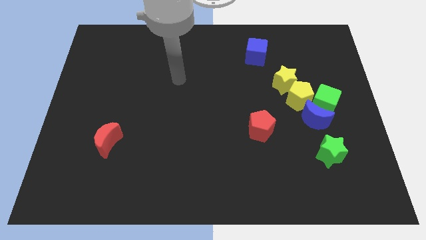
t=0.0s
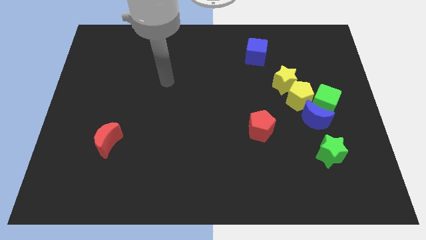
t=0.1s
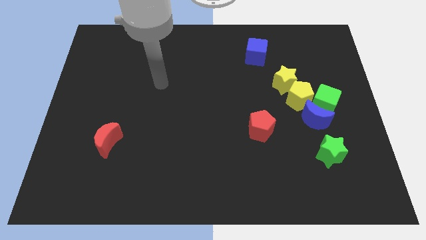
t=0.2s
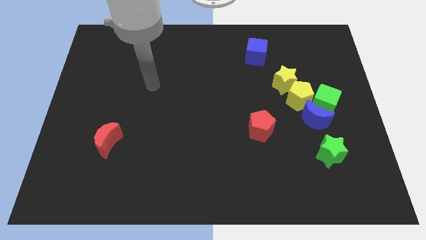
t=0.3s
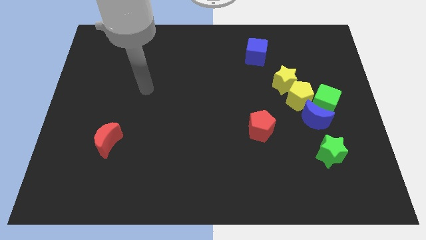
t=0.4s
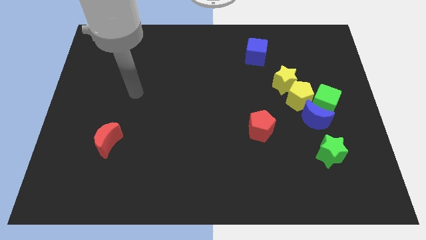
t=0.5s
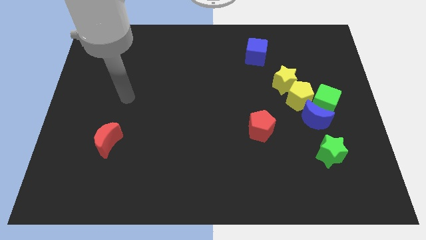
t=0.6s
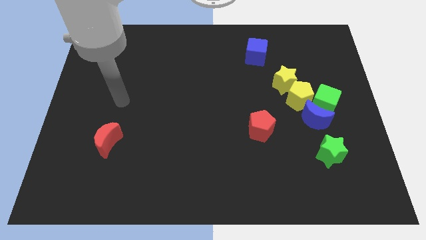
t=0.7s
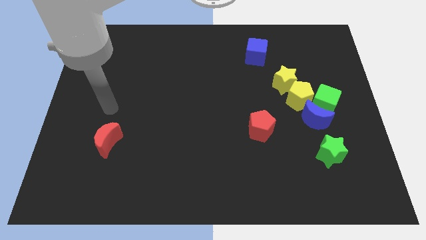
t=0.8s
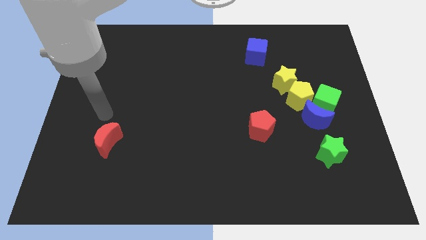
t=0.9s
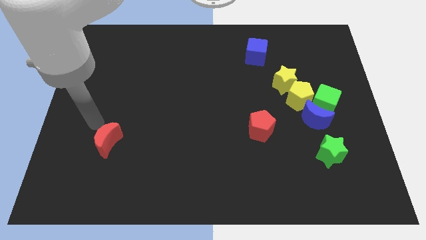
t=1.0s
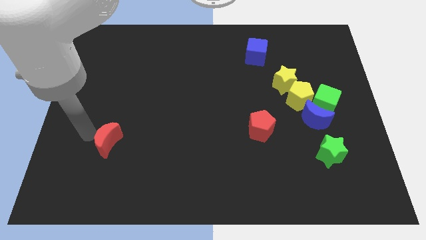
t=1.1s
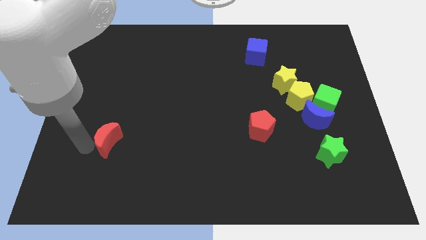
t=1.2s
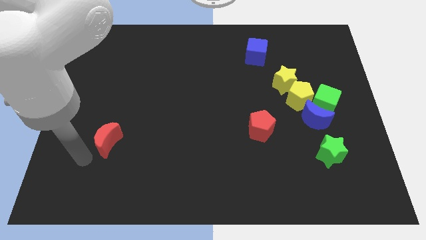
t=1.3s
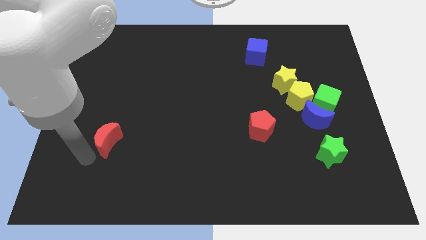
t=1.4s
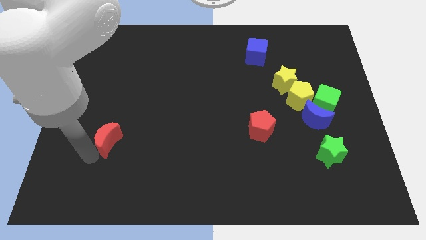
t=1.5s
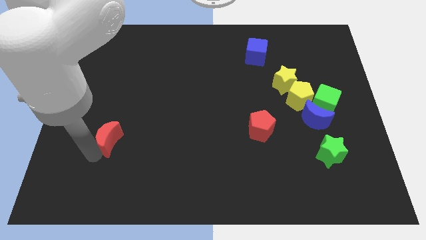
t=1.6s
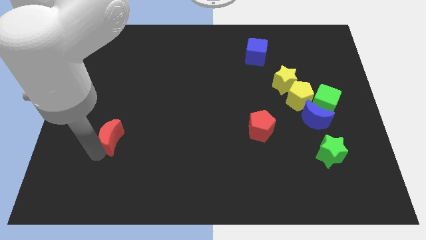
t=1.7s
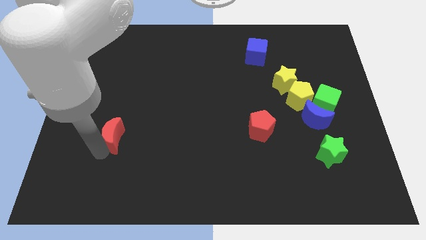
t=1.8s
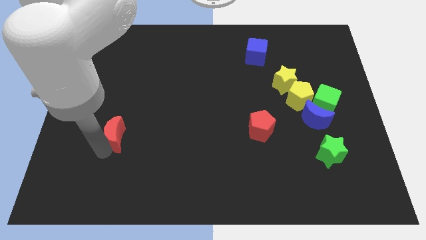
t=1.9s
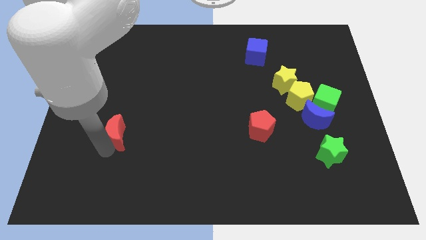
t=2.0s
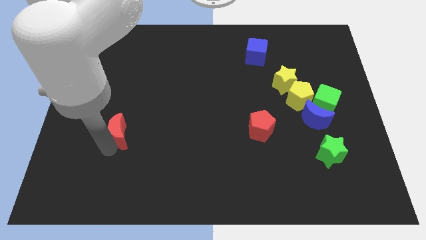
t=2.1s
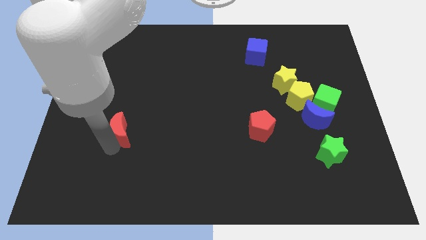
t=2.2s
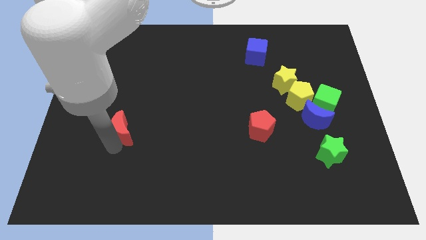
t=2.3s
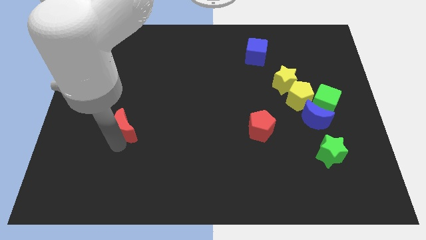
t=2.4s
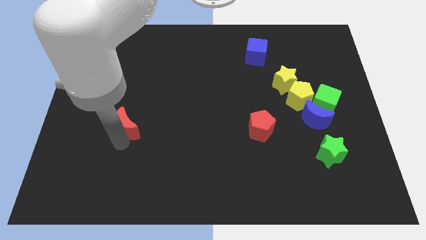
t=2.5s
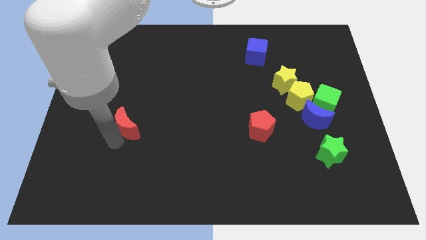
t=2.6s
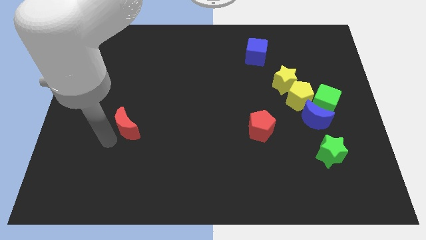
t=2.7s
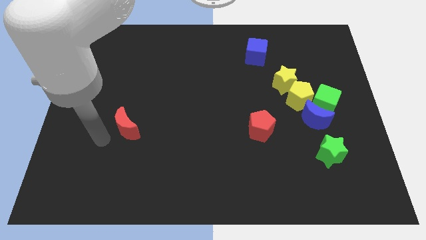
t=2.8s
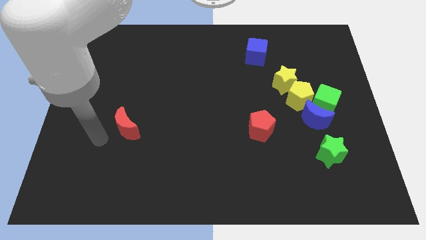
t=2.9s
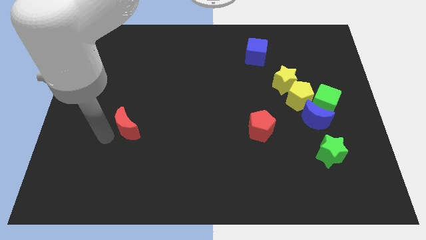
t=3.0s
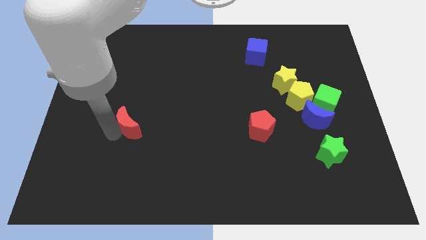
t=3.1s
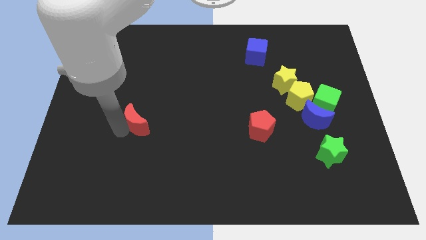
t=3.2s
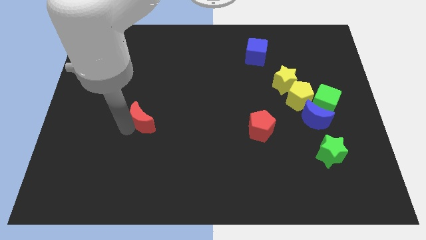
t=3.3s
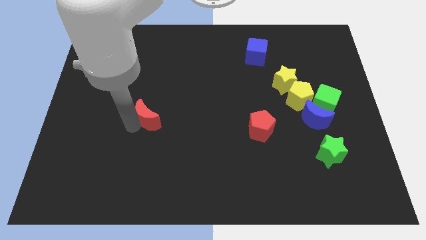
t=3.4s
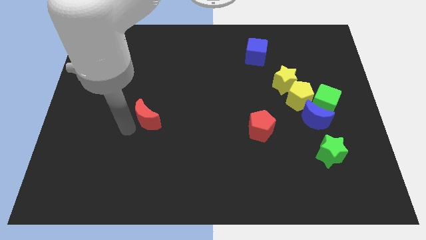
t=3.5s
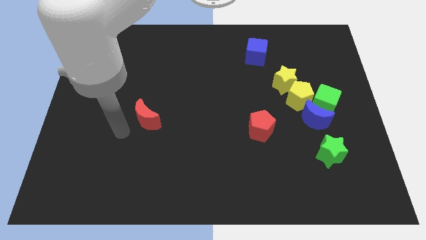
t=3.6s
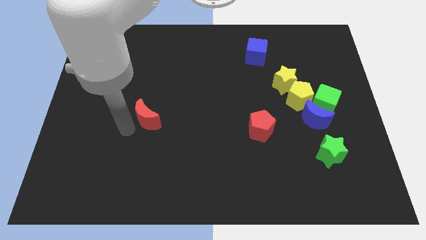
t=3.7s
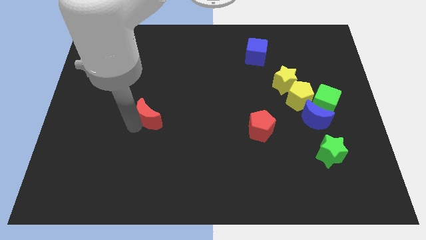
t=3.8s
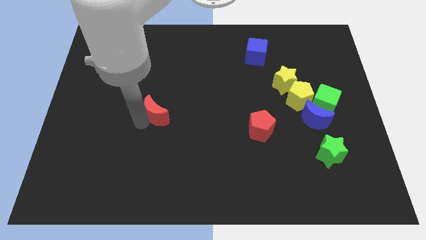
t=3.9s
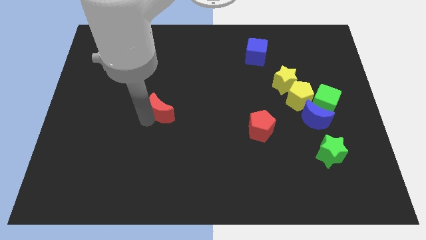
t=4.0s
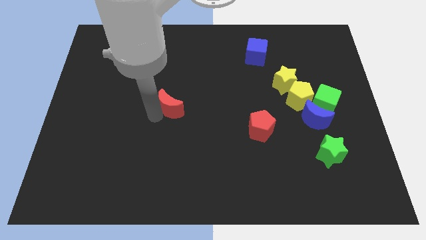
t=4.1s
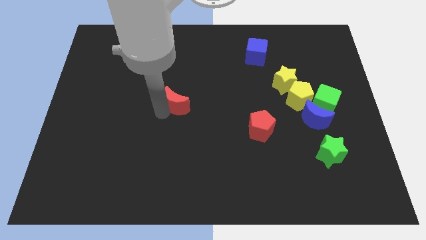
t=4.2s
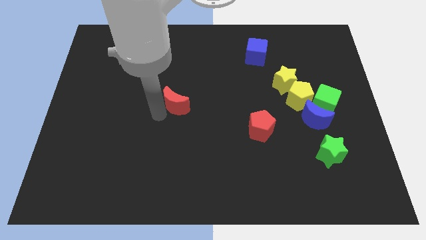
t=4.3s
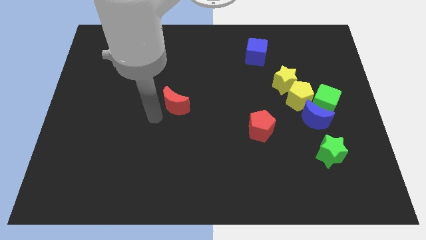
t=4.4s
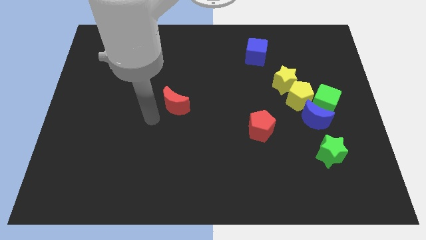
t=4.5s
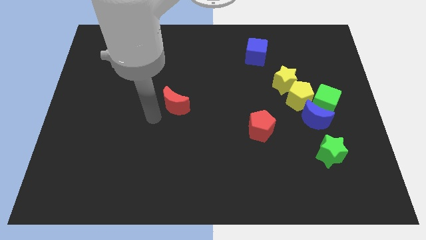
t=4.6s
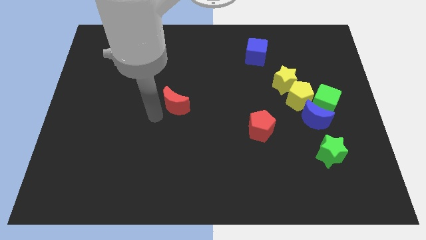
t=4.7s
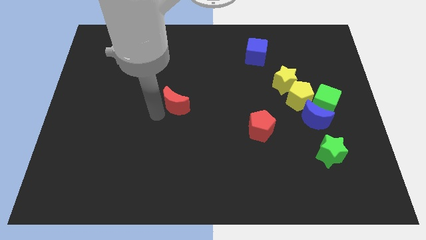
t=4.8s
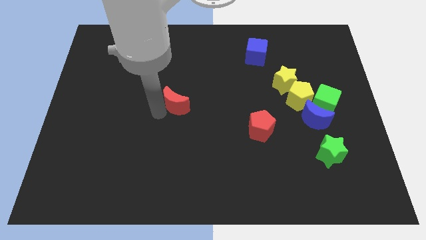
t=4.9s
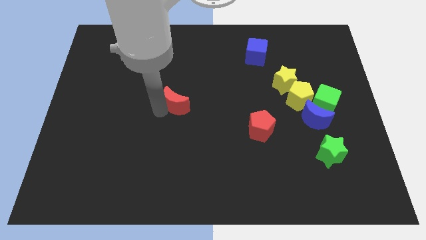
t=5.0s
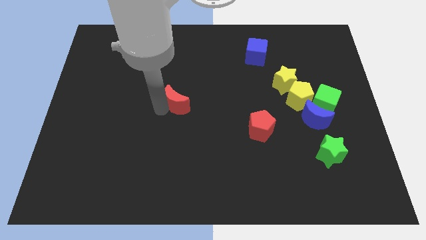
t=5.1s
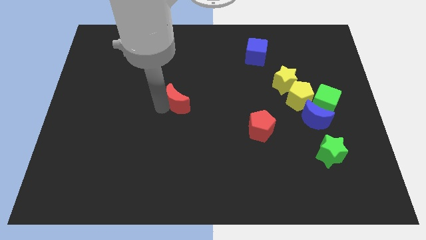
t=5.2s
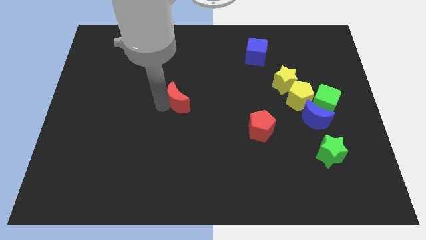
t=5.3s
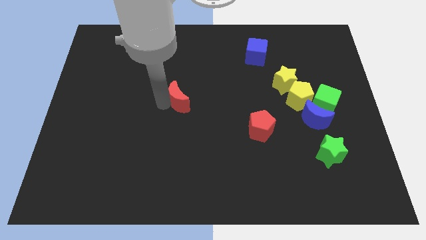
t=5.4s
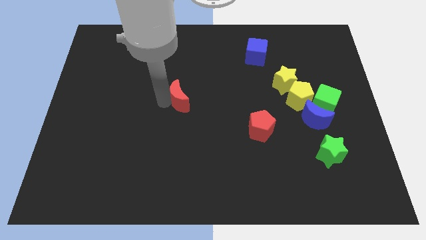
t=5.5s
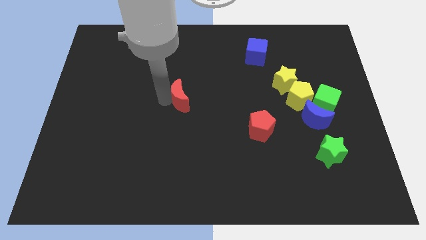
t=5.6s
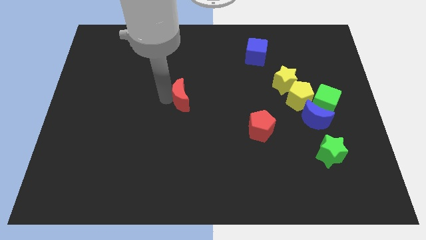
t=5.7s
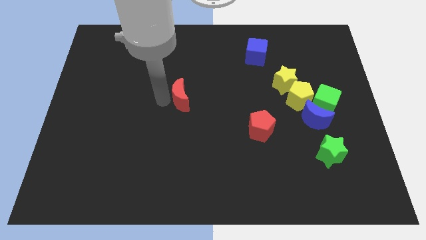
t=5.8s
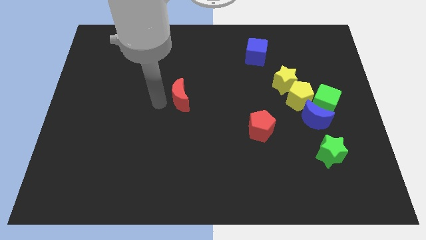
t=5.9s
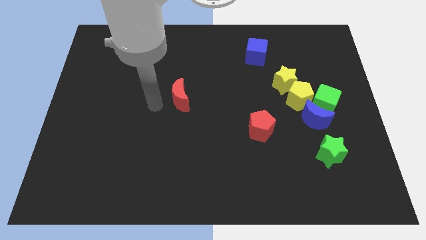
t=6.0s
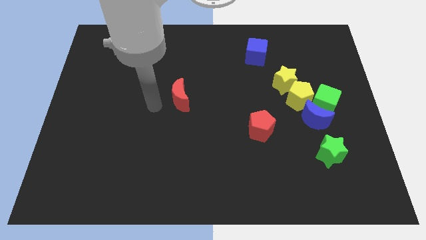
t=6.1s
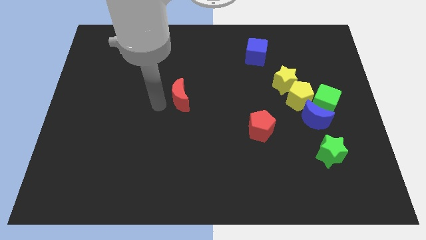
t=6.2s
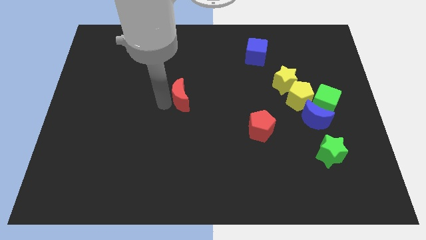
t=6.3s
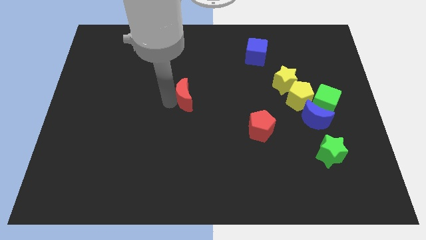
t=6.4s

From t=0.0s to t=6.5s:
move the red moon upwards and to the right diagonally

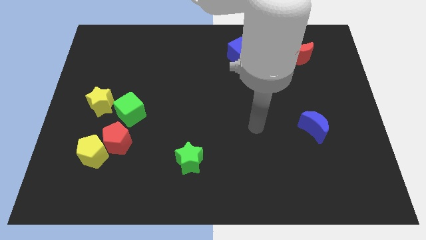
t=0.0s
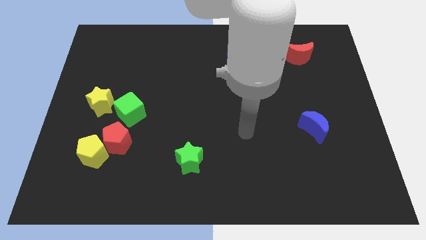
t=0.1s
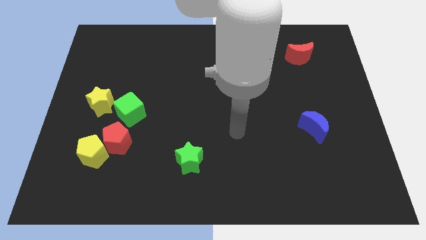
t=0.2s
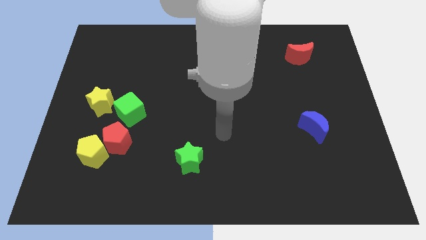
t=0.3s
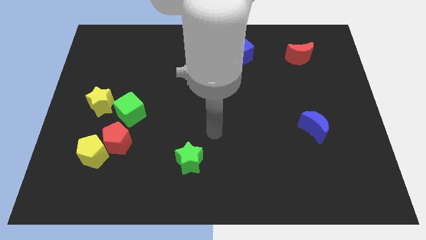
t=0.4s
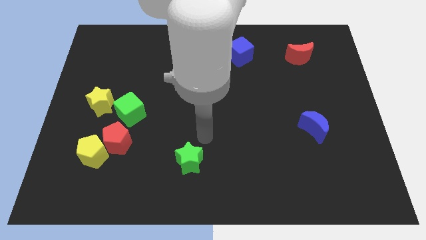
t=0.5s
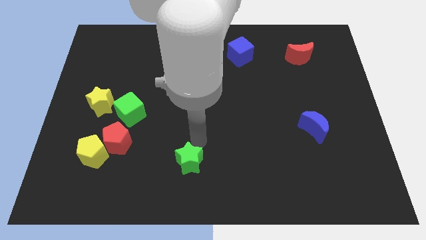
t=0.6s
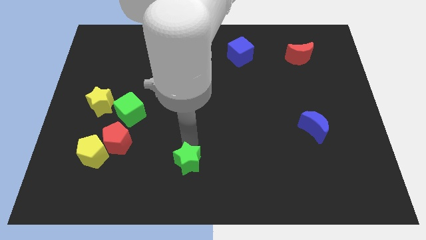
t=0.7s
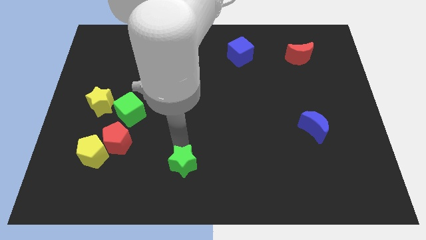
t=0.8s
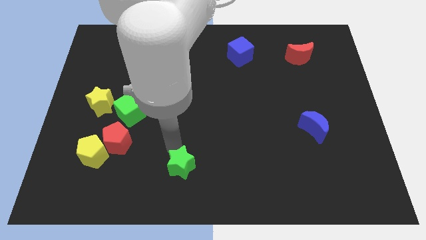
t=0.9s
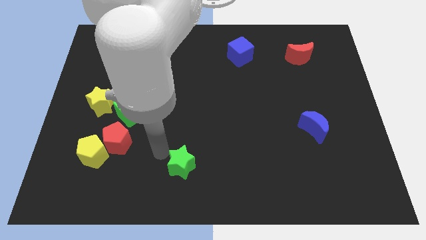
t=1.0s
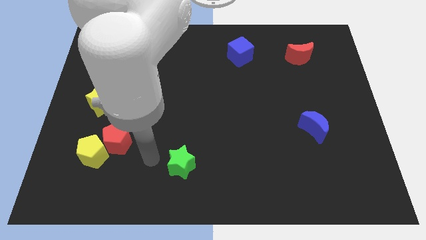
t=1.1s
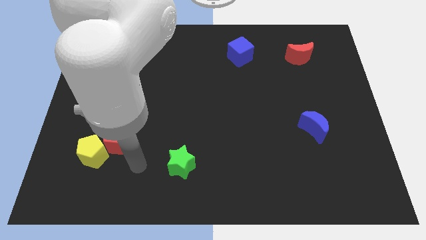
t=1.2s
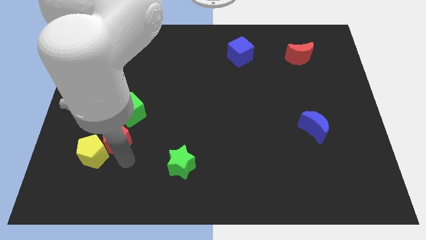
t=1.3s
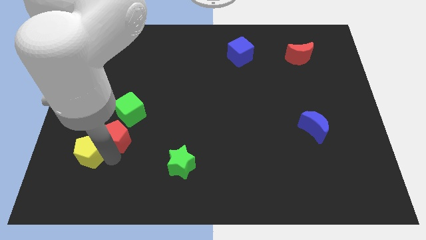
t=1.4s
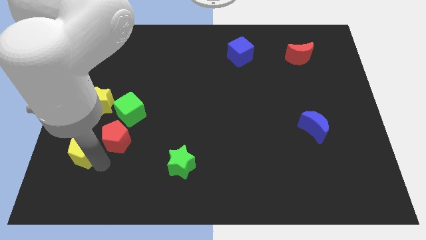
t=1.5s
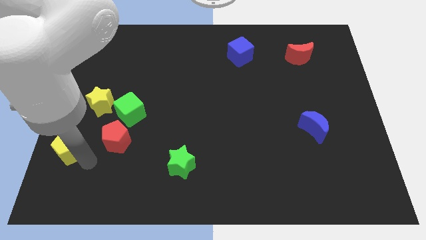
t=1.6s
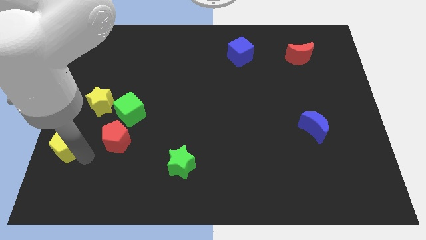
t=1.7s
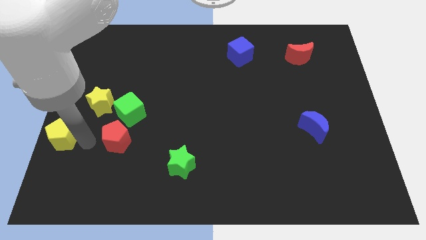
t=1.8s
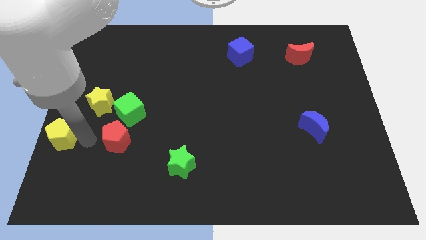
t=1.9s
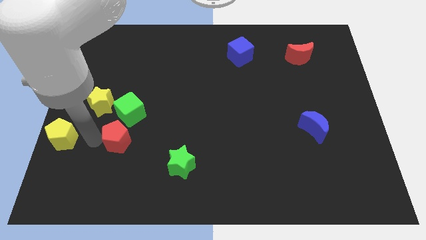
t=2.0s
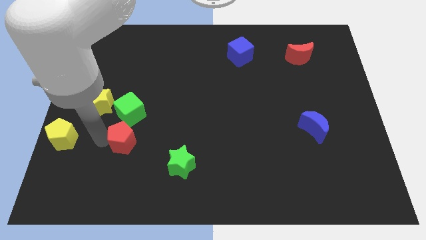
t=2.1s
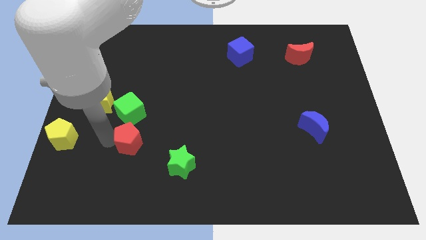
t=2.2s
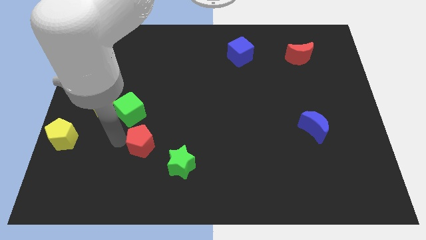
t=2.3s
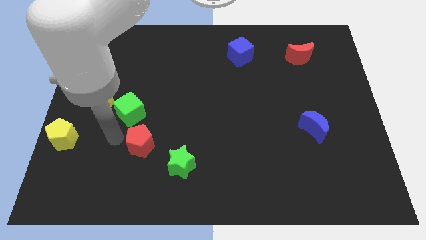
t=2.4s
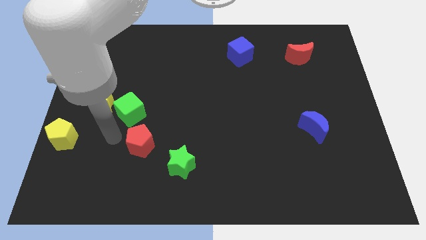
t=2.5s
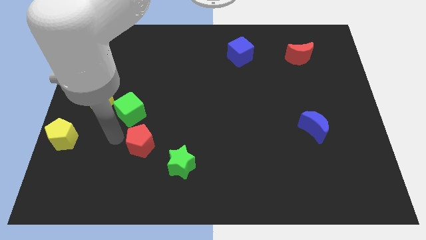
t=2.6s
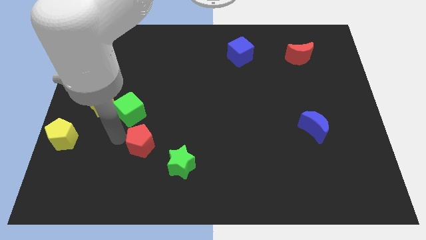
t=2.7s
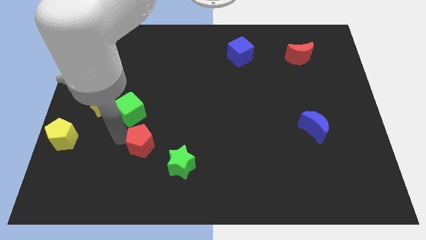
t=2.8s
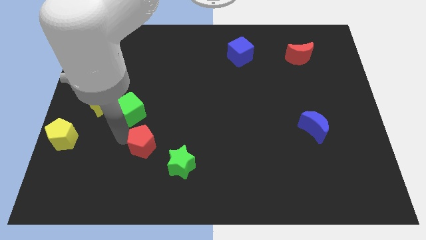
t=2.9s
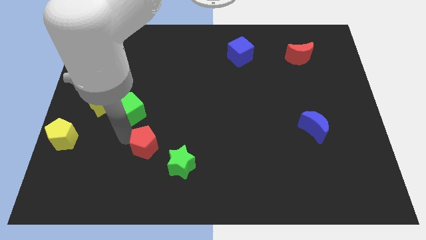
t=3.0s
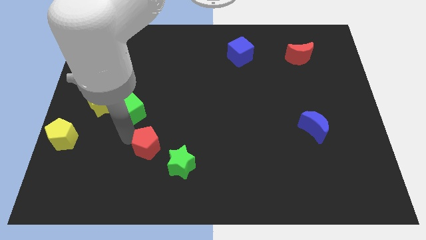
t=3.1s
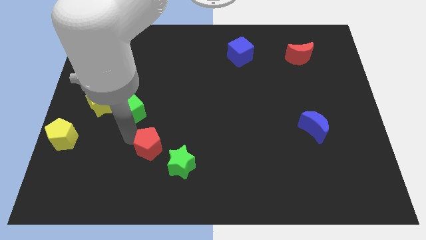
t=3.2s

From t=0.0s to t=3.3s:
move the red pentagon somewhat right
